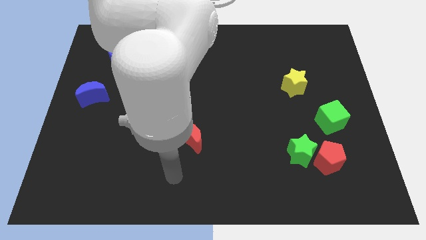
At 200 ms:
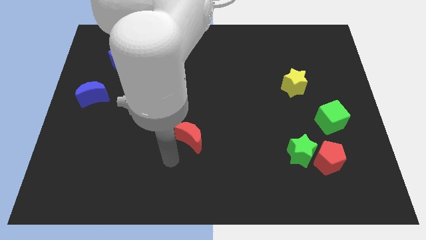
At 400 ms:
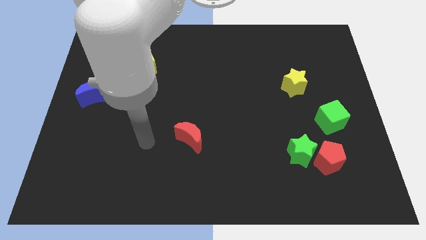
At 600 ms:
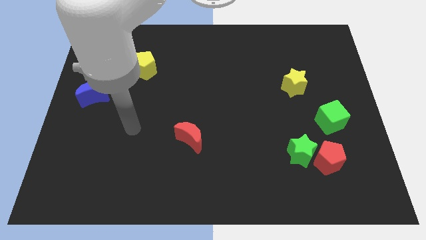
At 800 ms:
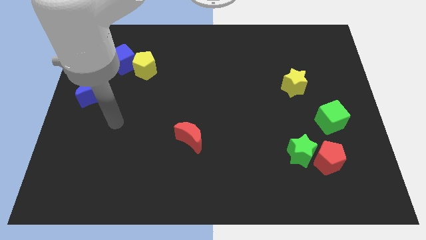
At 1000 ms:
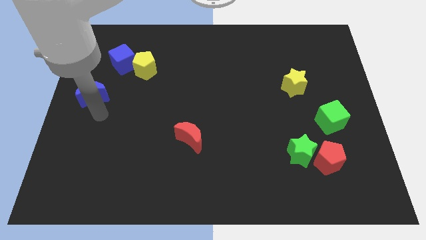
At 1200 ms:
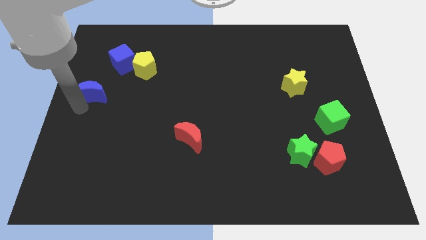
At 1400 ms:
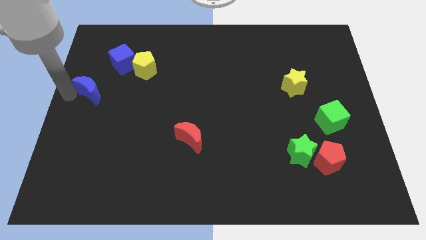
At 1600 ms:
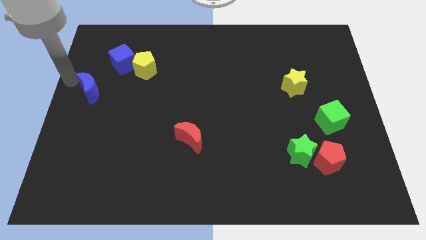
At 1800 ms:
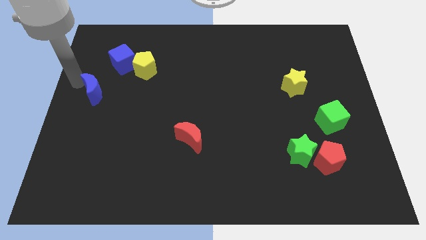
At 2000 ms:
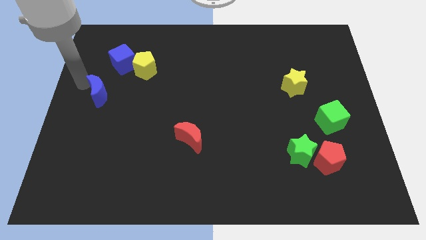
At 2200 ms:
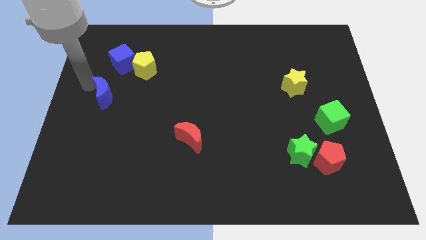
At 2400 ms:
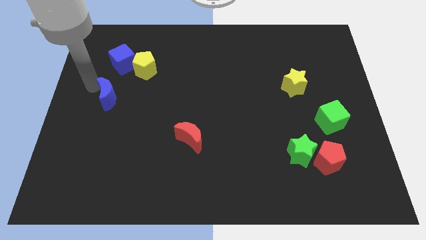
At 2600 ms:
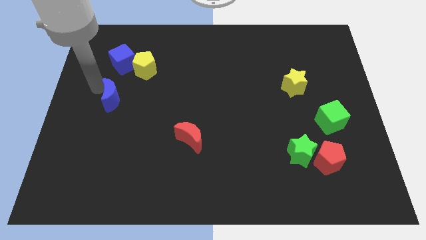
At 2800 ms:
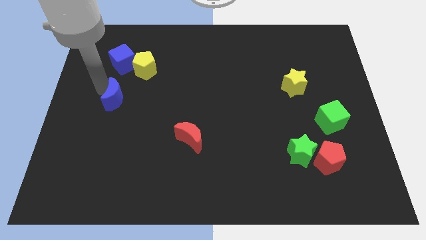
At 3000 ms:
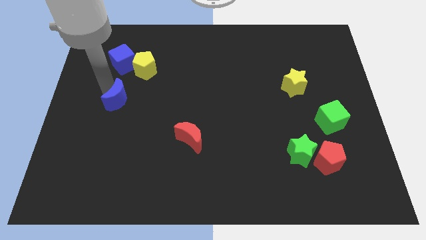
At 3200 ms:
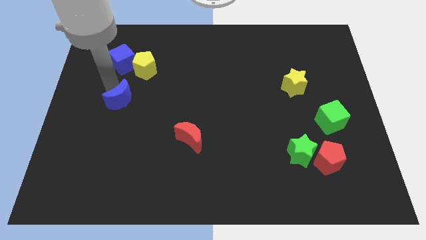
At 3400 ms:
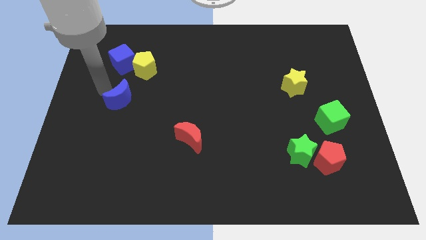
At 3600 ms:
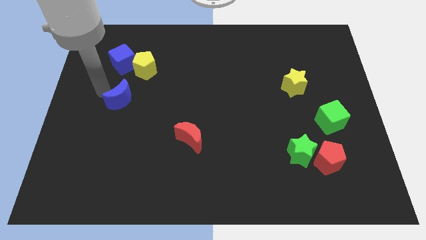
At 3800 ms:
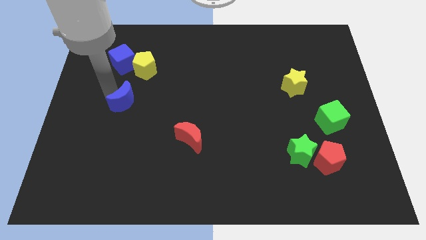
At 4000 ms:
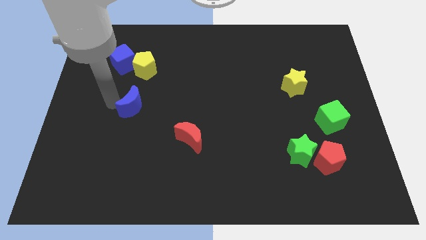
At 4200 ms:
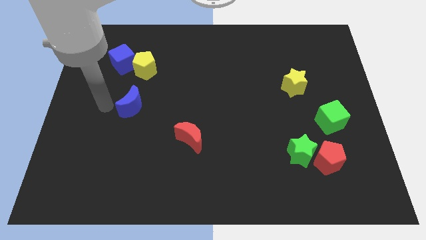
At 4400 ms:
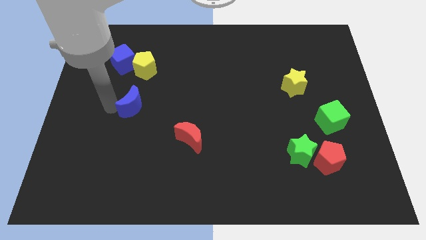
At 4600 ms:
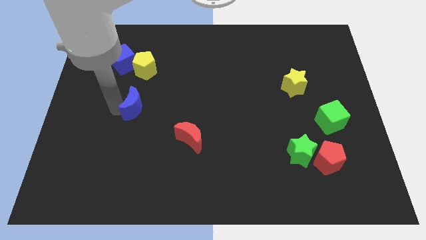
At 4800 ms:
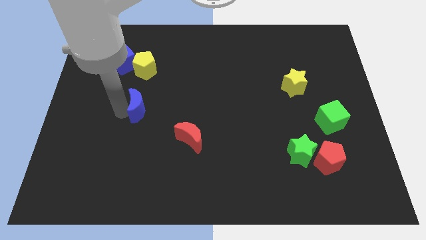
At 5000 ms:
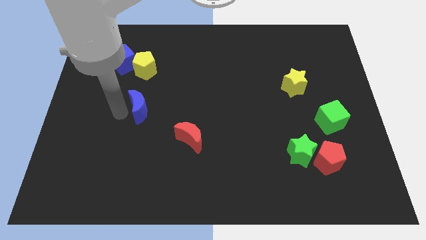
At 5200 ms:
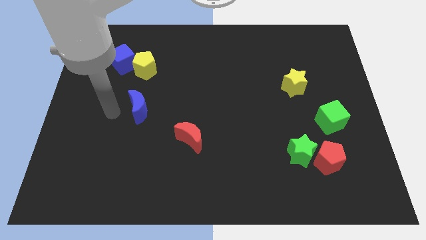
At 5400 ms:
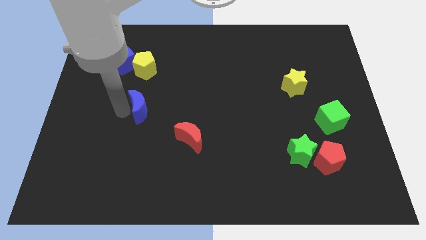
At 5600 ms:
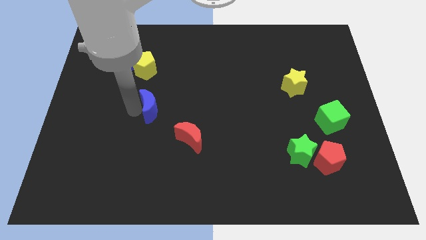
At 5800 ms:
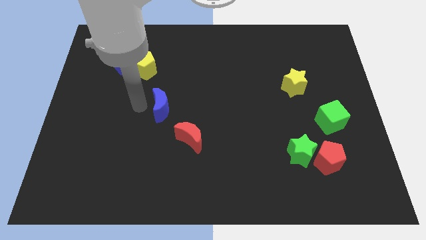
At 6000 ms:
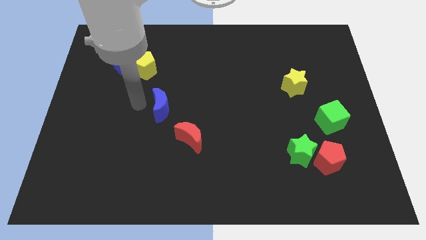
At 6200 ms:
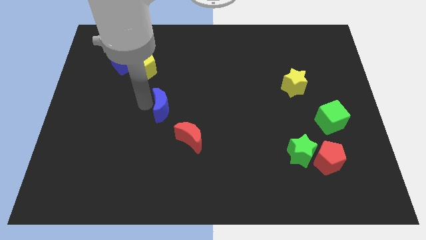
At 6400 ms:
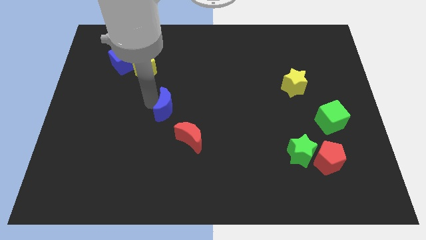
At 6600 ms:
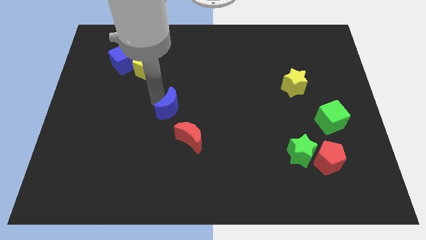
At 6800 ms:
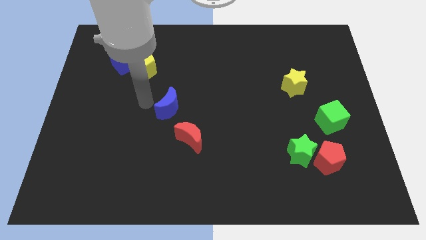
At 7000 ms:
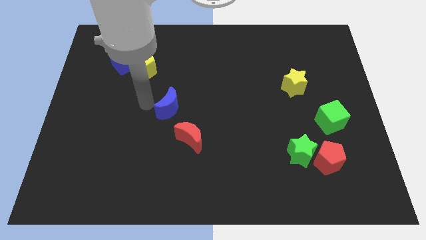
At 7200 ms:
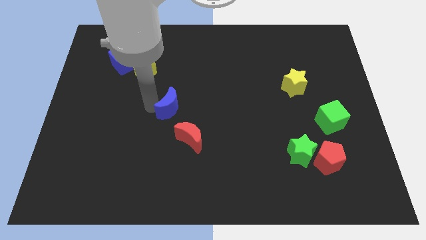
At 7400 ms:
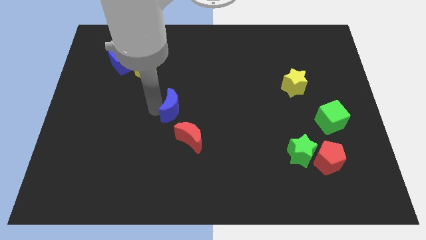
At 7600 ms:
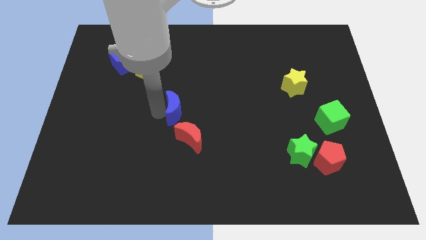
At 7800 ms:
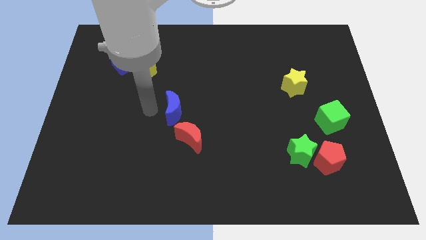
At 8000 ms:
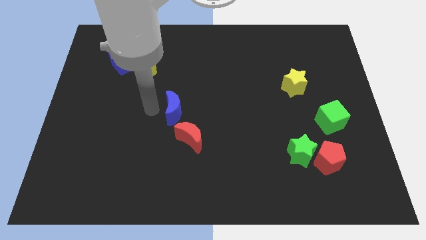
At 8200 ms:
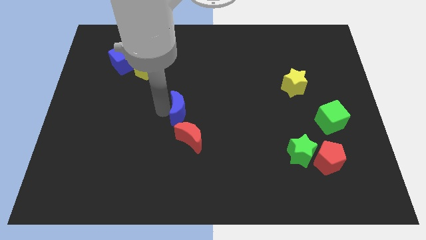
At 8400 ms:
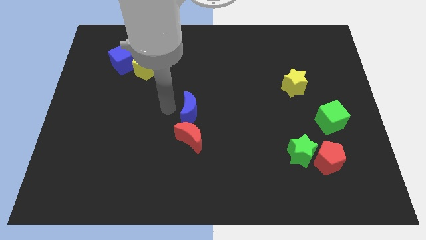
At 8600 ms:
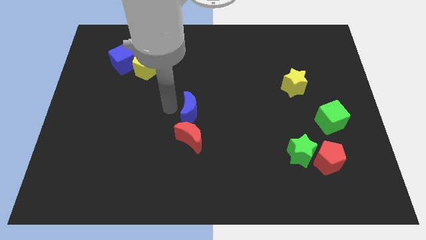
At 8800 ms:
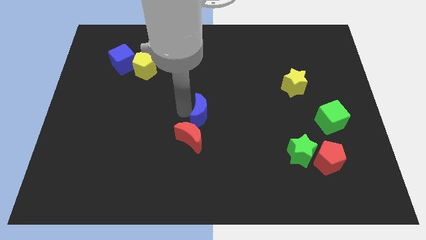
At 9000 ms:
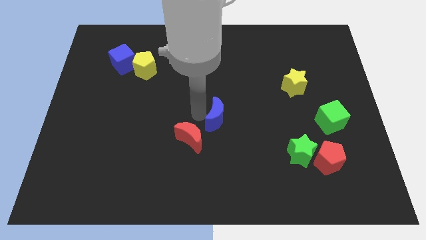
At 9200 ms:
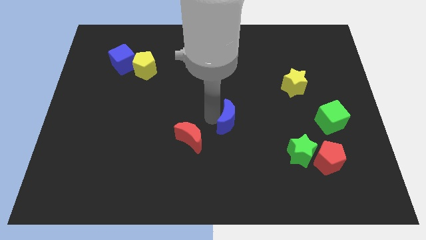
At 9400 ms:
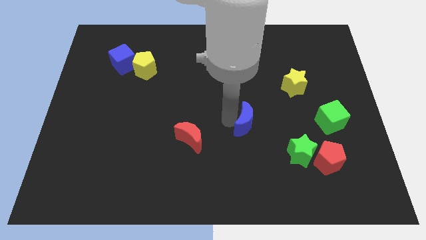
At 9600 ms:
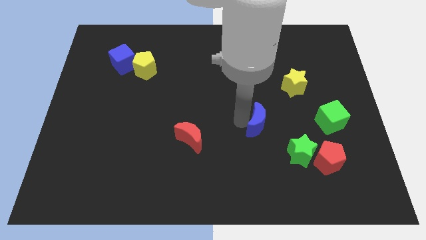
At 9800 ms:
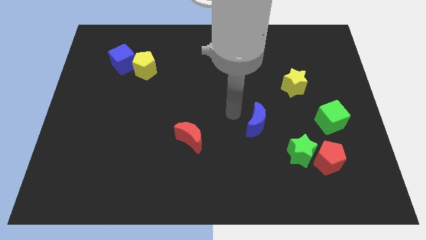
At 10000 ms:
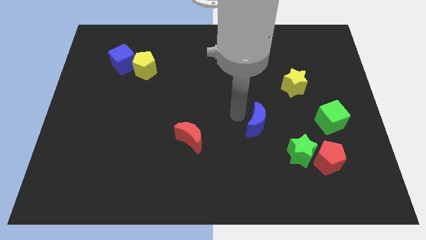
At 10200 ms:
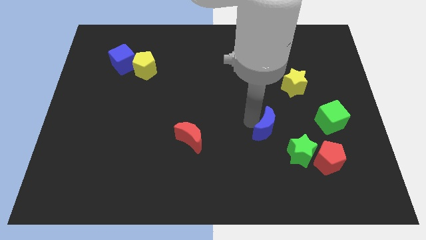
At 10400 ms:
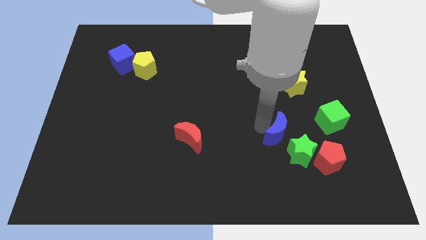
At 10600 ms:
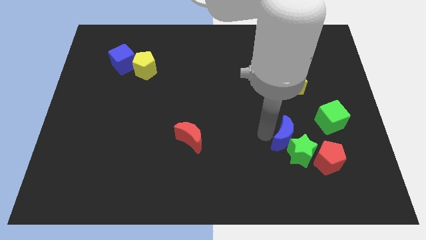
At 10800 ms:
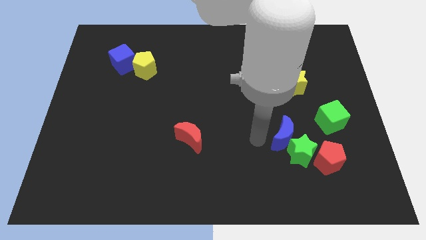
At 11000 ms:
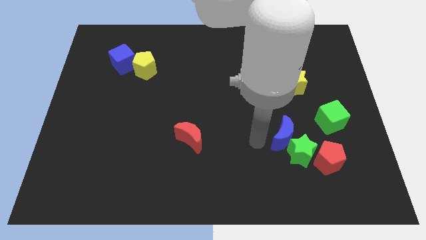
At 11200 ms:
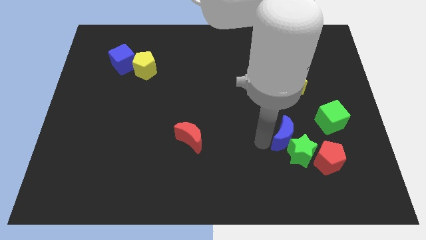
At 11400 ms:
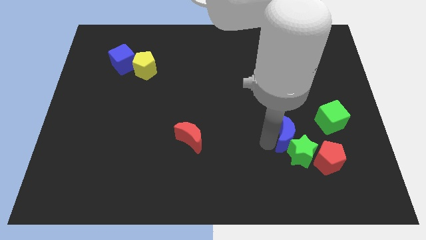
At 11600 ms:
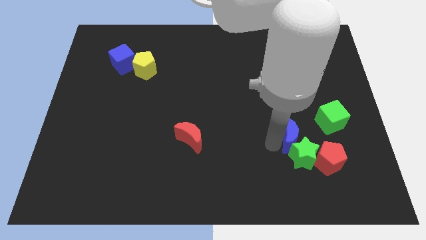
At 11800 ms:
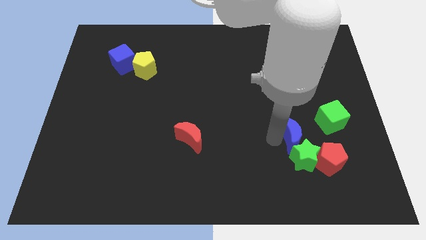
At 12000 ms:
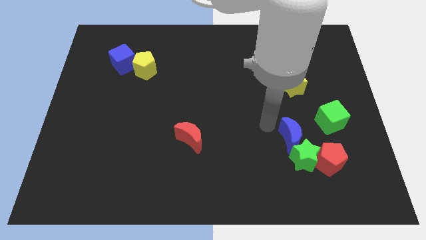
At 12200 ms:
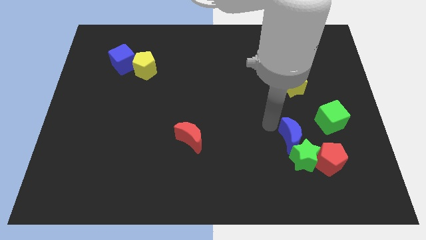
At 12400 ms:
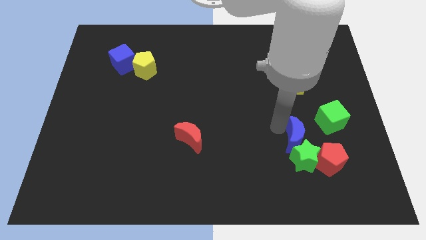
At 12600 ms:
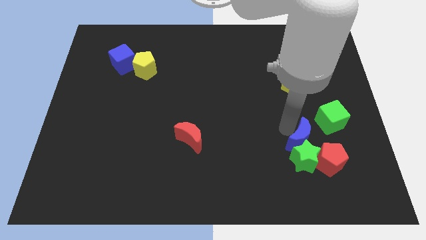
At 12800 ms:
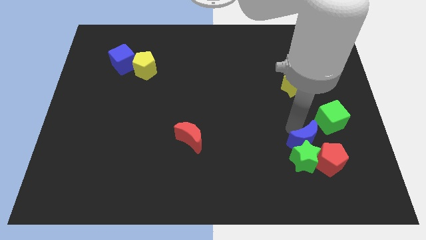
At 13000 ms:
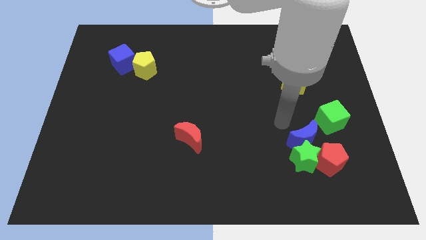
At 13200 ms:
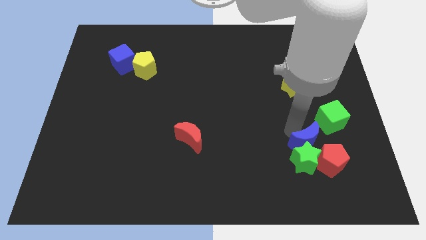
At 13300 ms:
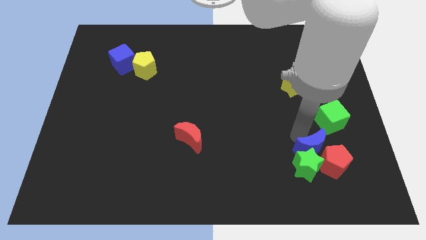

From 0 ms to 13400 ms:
slide the blue moon next to the red pentagon
